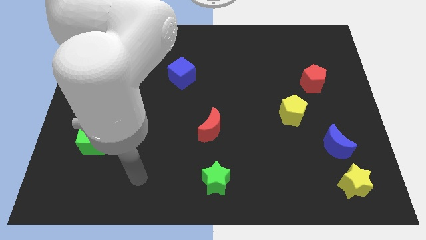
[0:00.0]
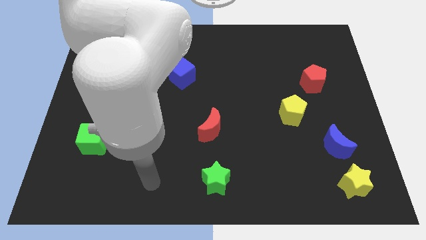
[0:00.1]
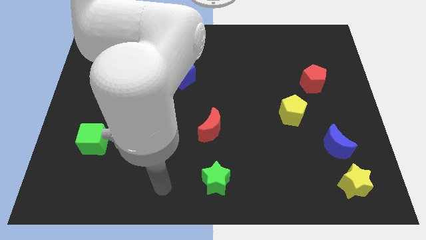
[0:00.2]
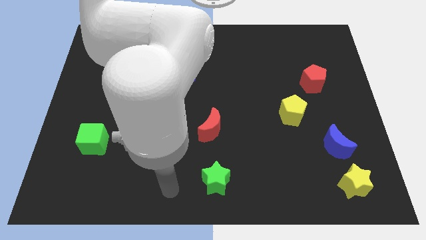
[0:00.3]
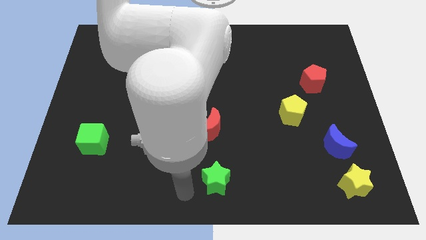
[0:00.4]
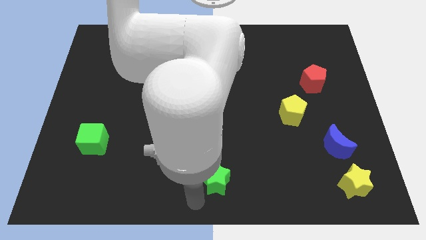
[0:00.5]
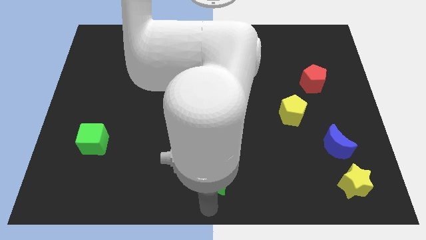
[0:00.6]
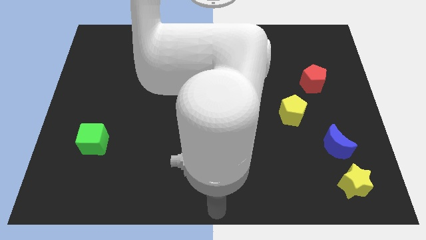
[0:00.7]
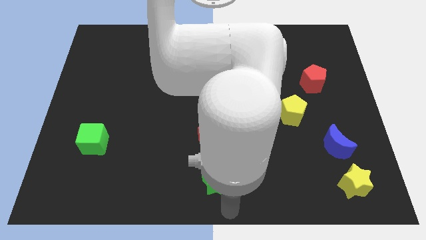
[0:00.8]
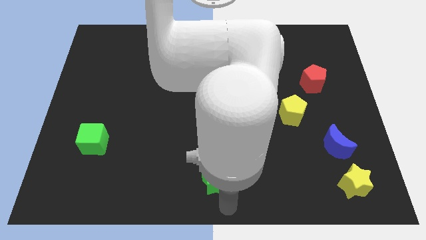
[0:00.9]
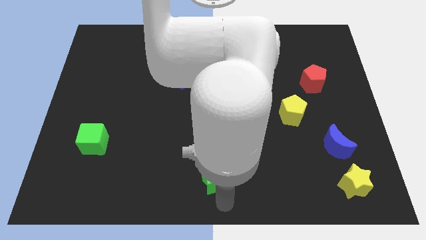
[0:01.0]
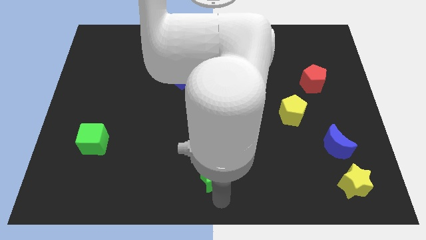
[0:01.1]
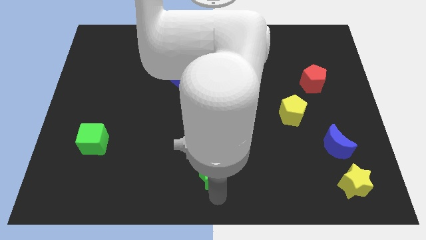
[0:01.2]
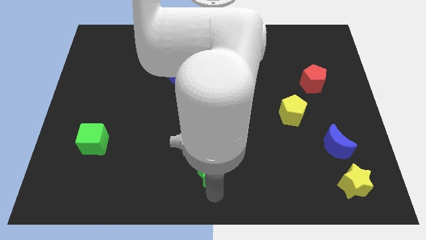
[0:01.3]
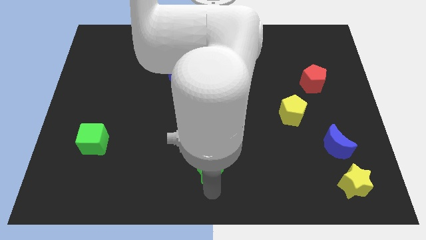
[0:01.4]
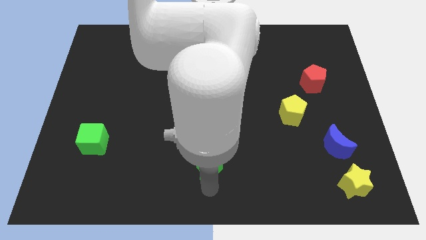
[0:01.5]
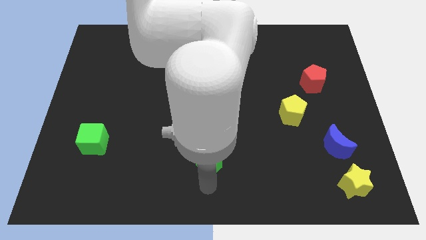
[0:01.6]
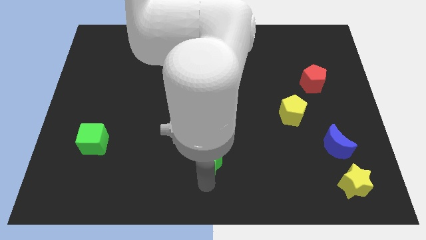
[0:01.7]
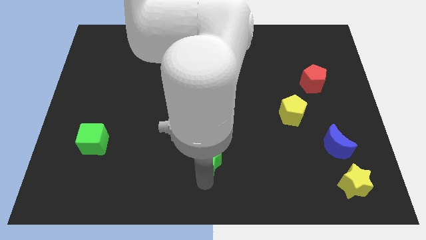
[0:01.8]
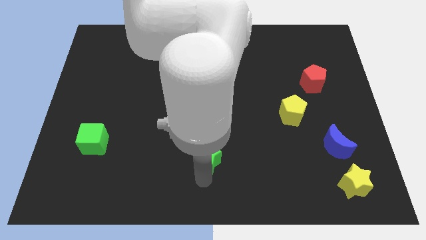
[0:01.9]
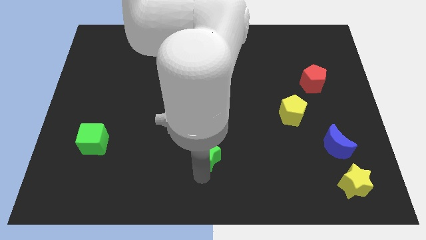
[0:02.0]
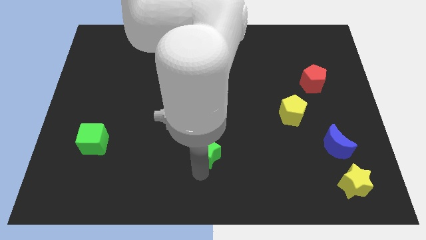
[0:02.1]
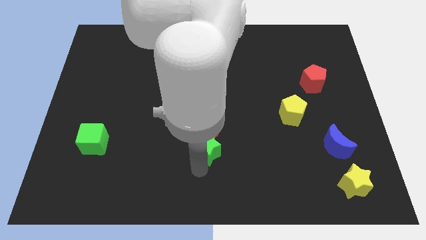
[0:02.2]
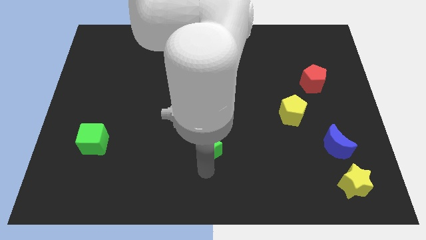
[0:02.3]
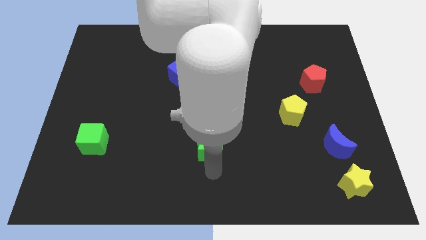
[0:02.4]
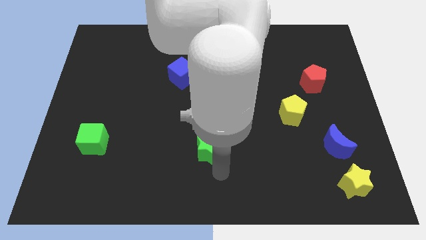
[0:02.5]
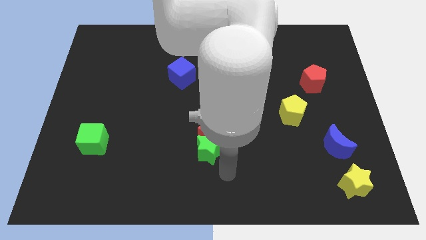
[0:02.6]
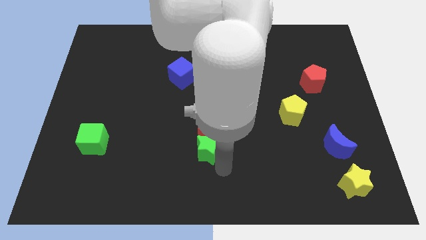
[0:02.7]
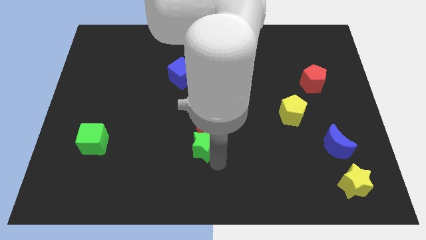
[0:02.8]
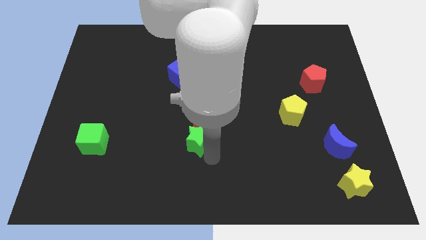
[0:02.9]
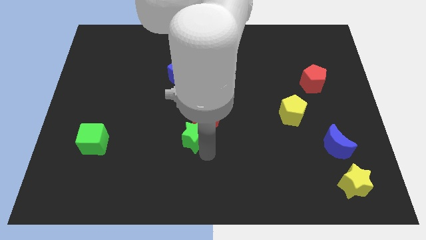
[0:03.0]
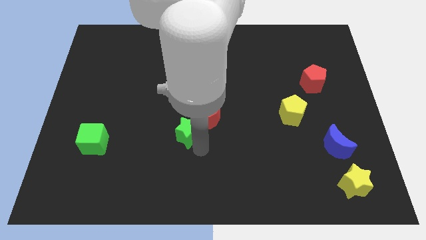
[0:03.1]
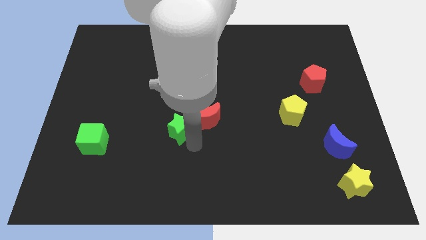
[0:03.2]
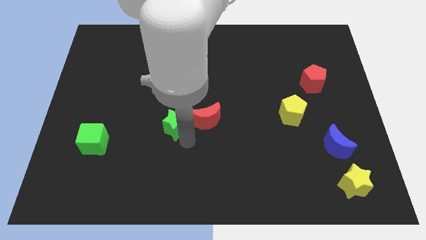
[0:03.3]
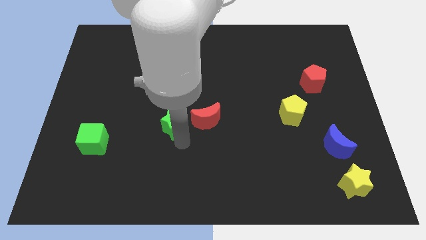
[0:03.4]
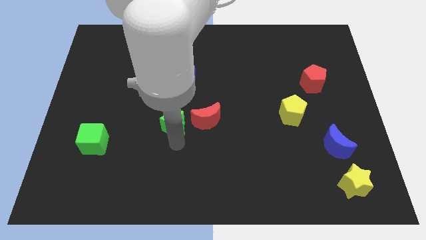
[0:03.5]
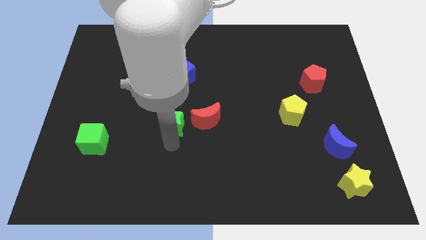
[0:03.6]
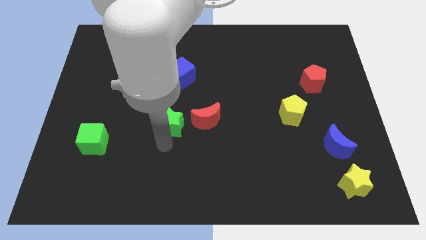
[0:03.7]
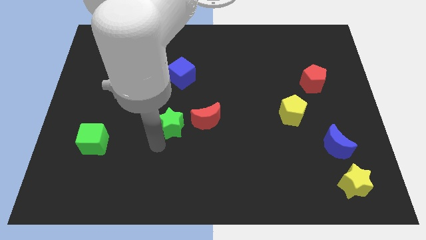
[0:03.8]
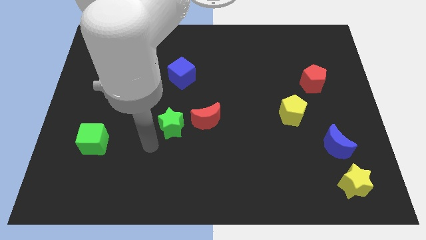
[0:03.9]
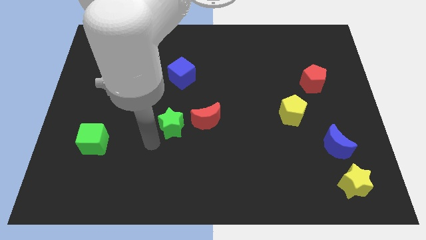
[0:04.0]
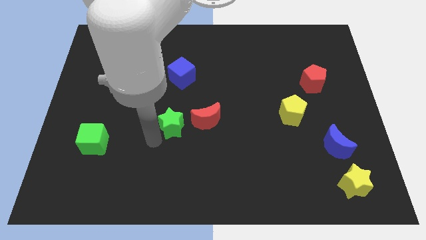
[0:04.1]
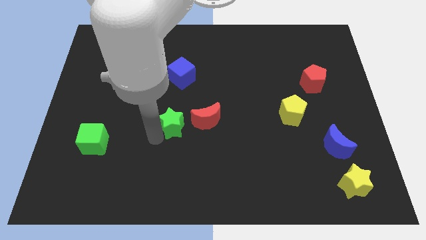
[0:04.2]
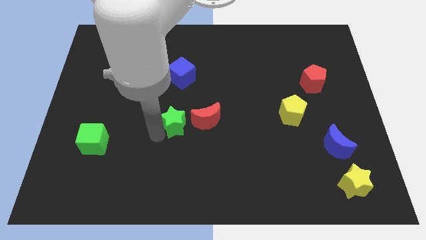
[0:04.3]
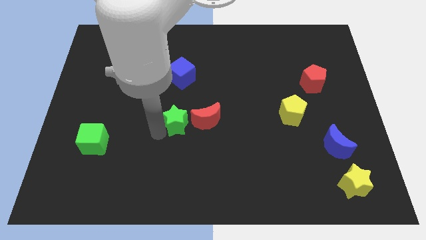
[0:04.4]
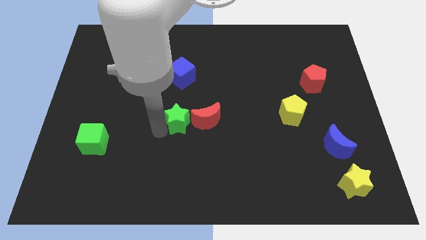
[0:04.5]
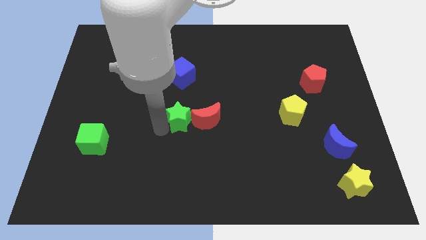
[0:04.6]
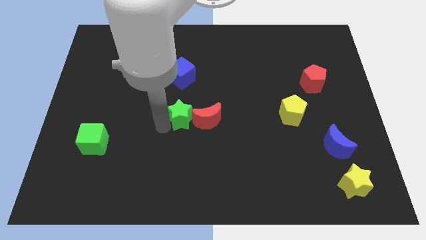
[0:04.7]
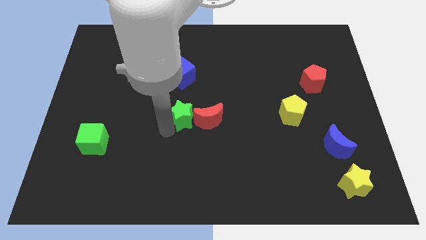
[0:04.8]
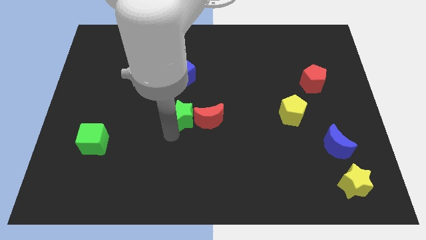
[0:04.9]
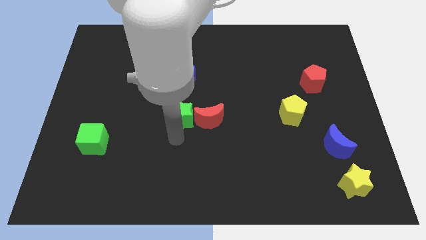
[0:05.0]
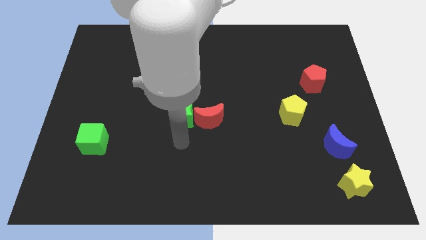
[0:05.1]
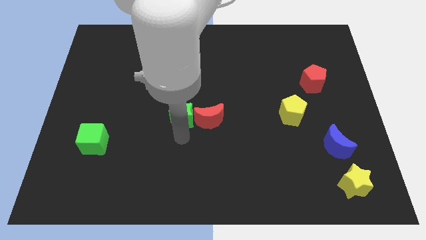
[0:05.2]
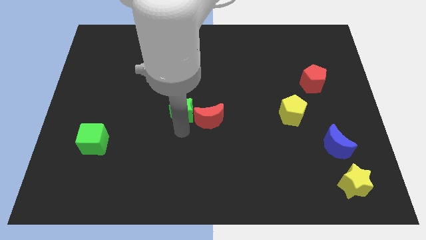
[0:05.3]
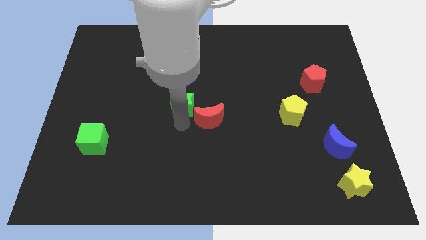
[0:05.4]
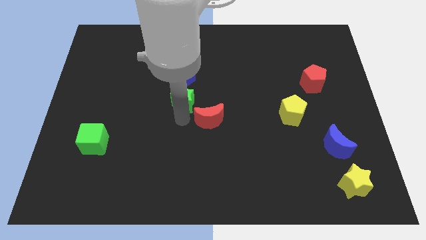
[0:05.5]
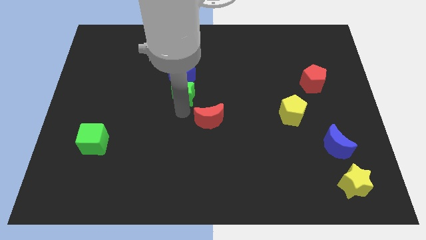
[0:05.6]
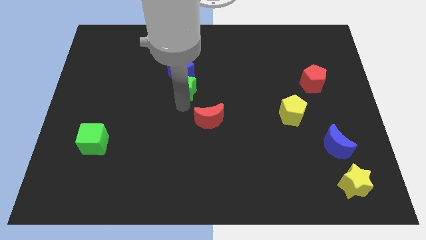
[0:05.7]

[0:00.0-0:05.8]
slide the green star close to the blue cube
